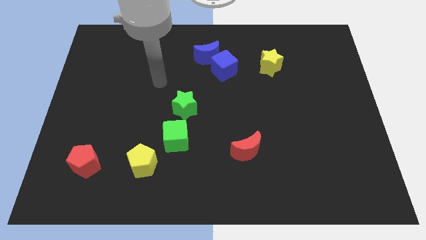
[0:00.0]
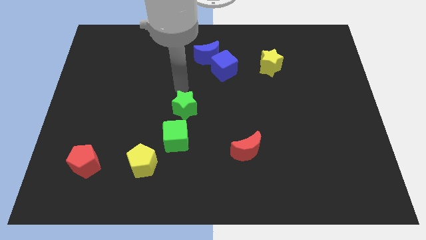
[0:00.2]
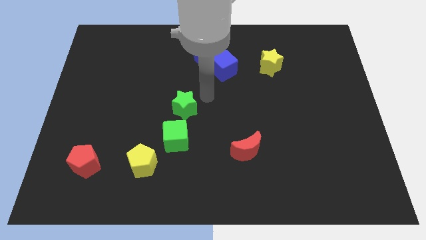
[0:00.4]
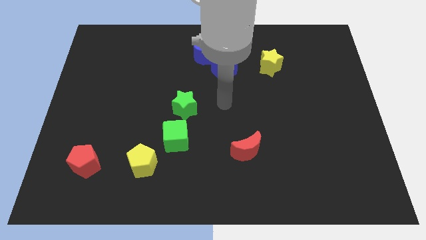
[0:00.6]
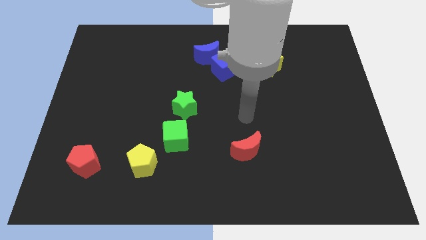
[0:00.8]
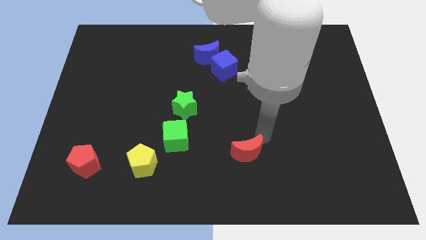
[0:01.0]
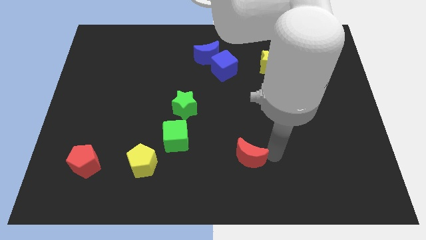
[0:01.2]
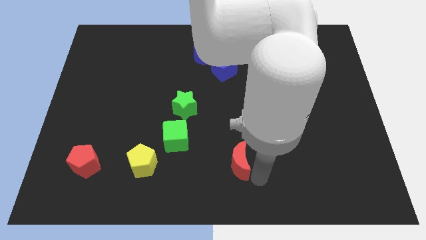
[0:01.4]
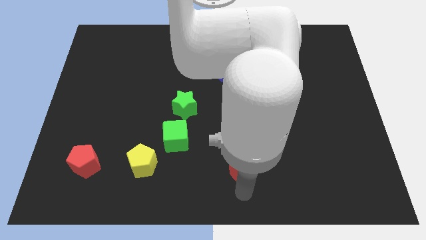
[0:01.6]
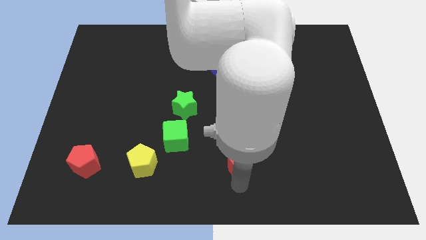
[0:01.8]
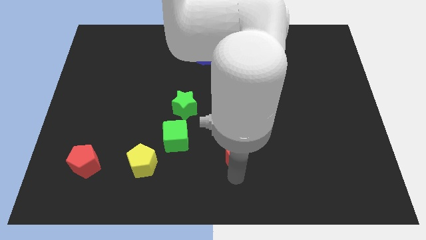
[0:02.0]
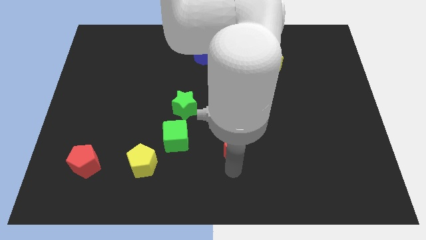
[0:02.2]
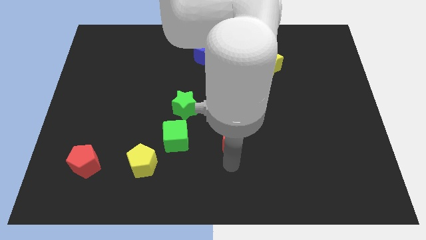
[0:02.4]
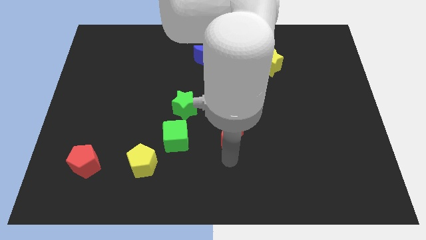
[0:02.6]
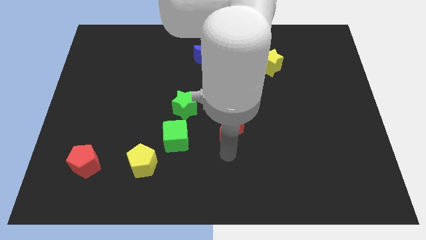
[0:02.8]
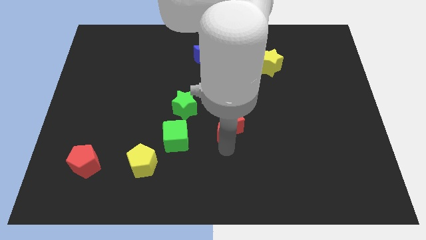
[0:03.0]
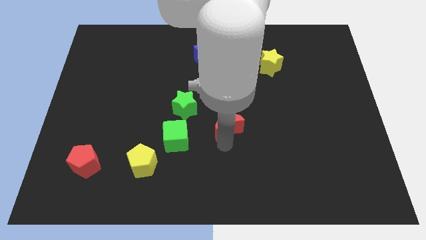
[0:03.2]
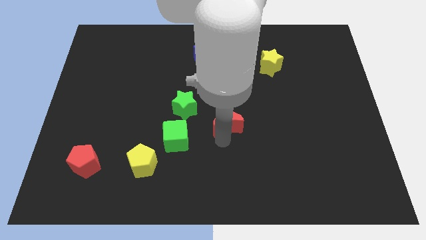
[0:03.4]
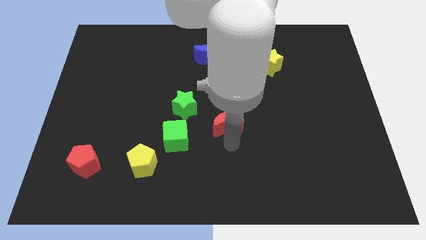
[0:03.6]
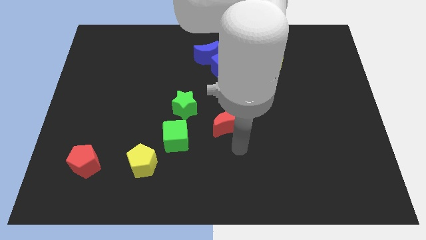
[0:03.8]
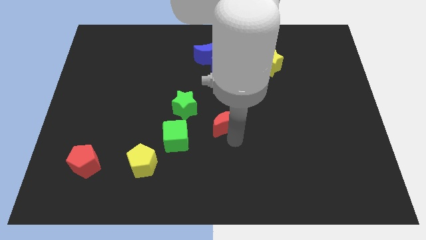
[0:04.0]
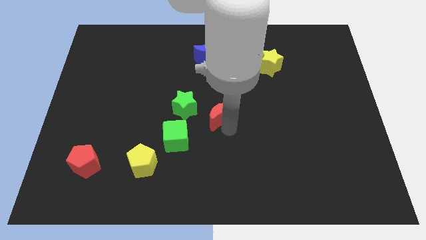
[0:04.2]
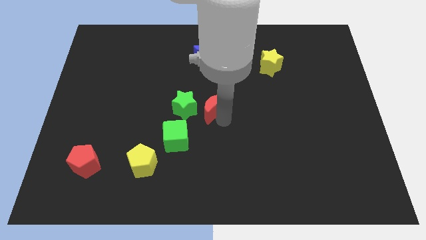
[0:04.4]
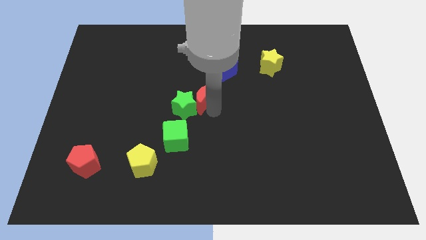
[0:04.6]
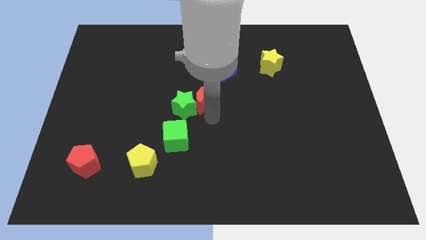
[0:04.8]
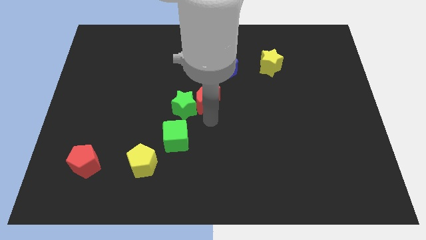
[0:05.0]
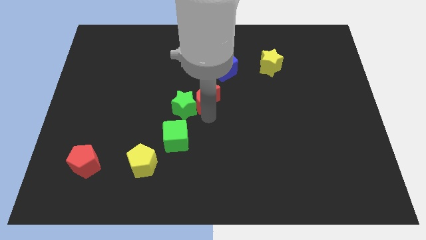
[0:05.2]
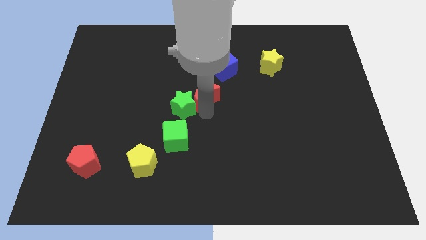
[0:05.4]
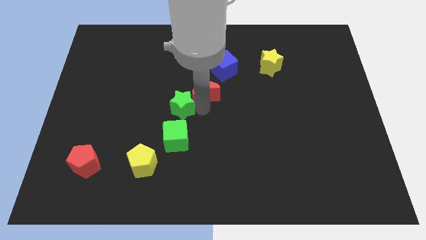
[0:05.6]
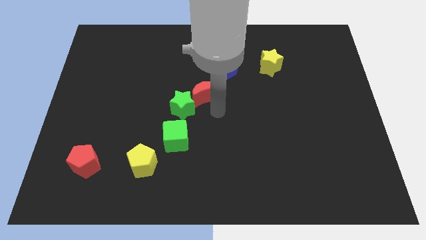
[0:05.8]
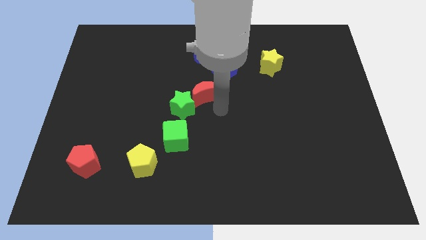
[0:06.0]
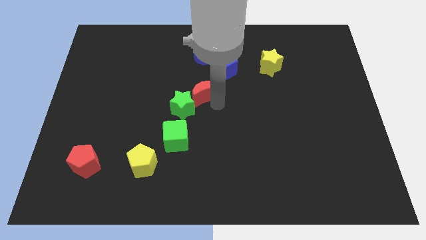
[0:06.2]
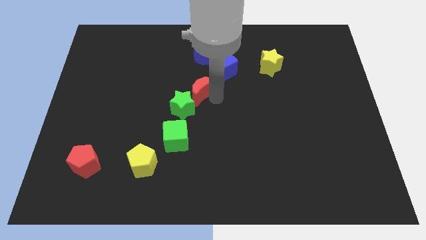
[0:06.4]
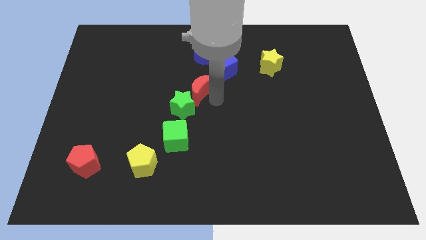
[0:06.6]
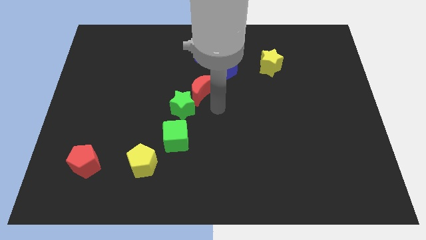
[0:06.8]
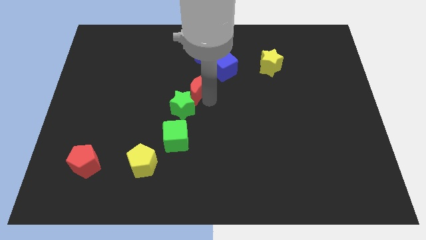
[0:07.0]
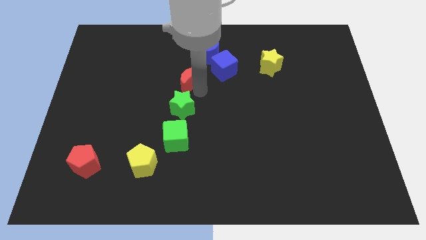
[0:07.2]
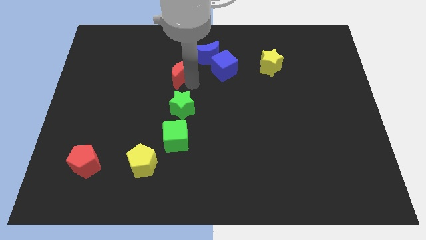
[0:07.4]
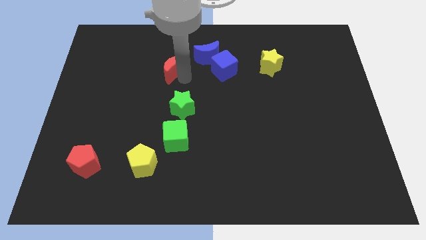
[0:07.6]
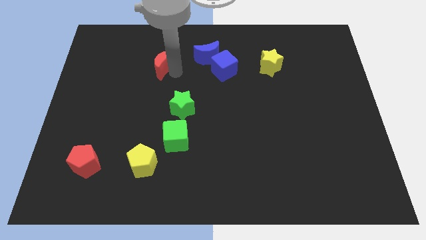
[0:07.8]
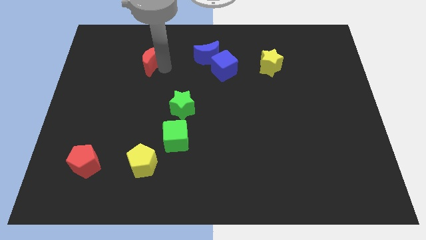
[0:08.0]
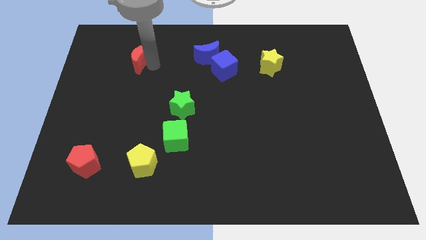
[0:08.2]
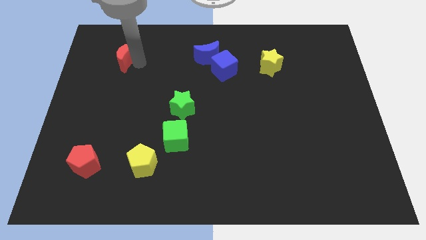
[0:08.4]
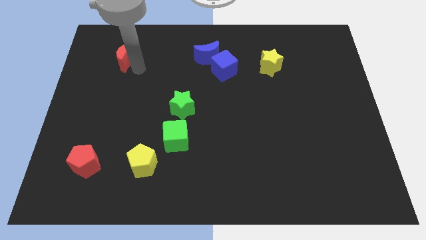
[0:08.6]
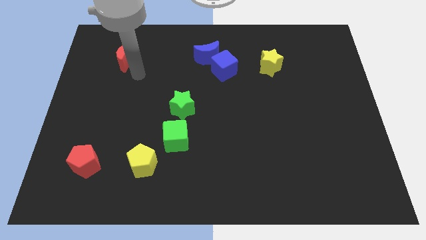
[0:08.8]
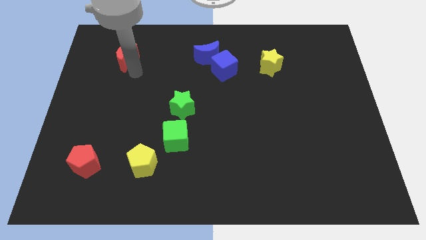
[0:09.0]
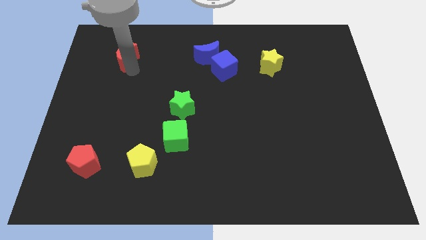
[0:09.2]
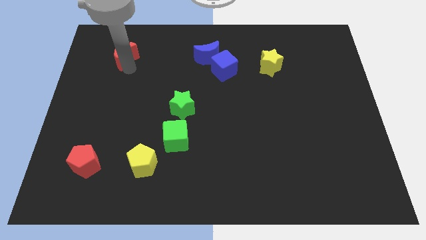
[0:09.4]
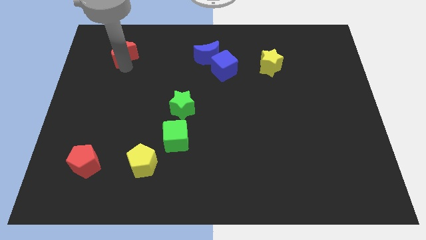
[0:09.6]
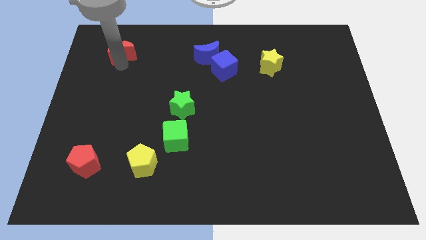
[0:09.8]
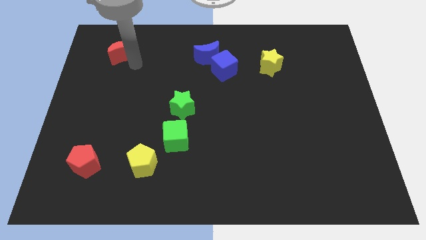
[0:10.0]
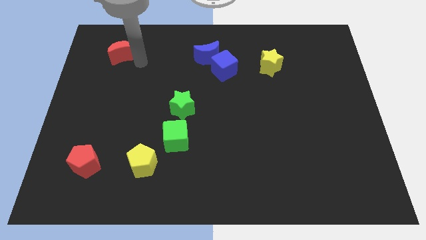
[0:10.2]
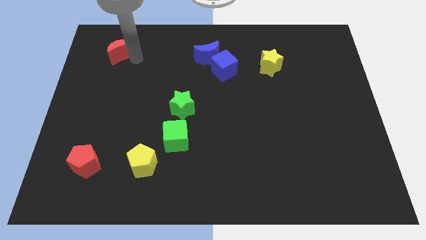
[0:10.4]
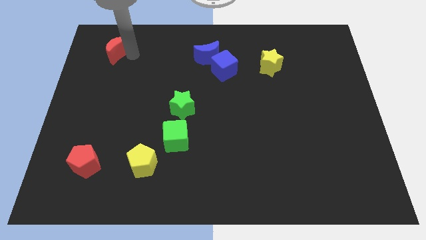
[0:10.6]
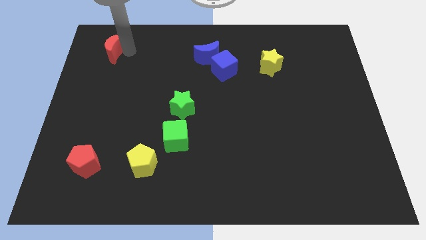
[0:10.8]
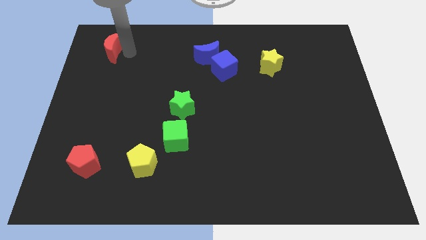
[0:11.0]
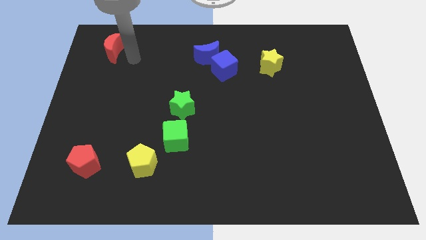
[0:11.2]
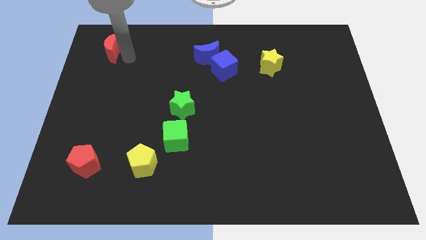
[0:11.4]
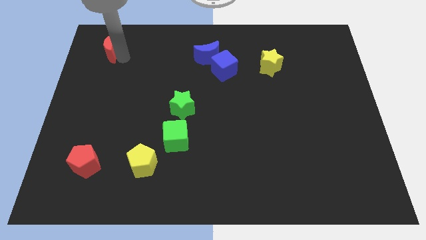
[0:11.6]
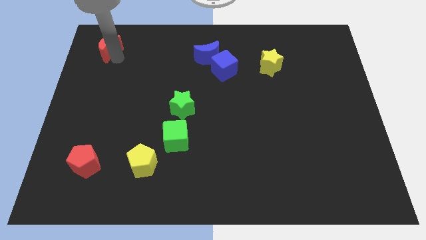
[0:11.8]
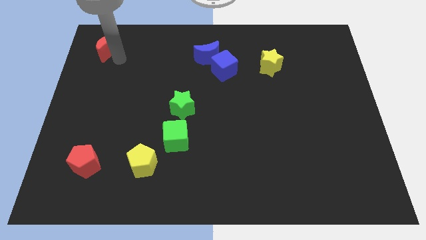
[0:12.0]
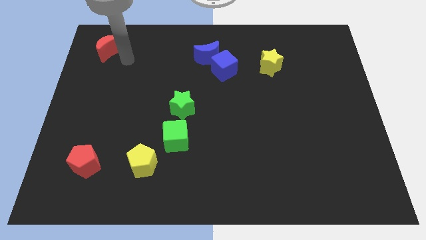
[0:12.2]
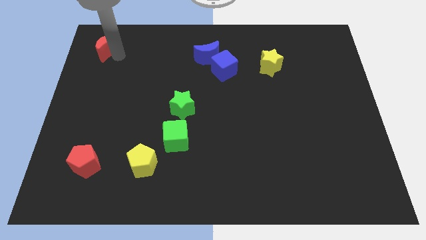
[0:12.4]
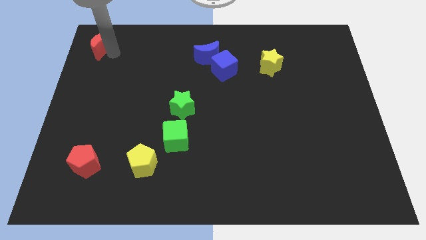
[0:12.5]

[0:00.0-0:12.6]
move the red moon to the top left corner
